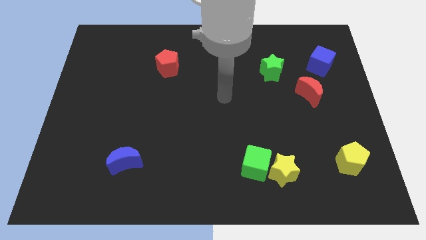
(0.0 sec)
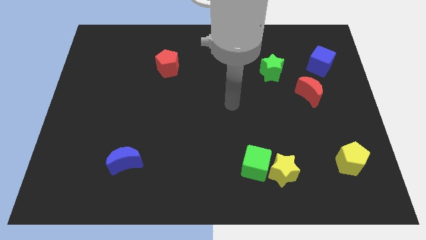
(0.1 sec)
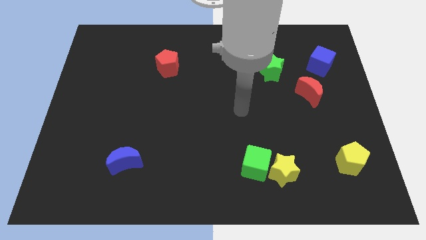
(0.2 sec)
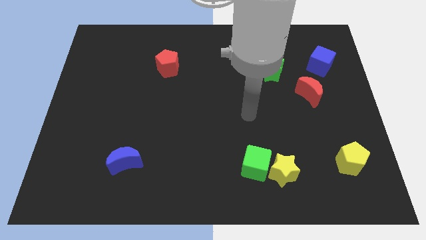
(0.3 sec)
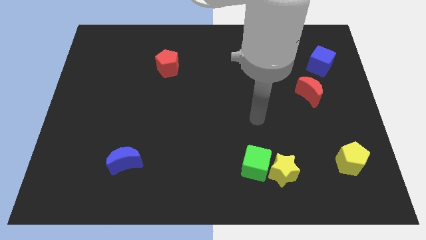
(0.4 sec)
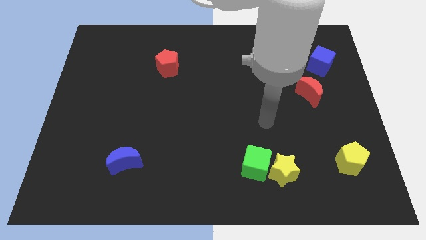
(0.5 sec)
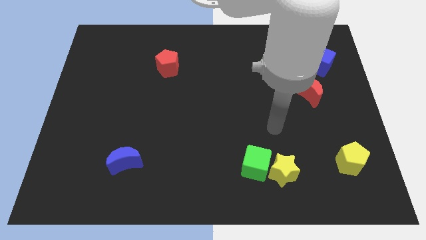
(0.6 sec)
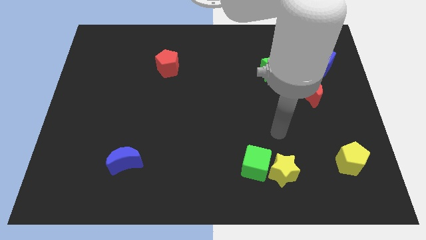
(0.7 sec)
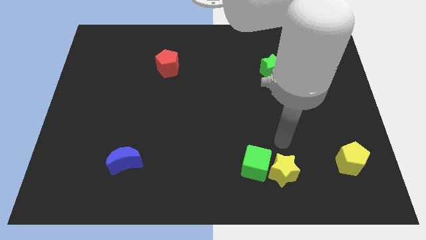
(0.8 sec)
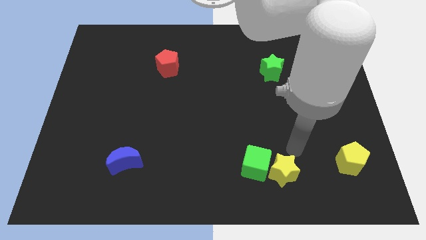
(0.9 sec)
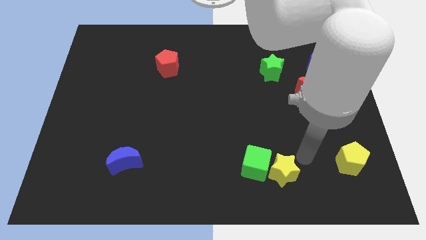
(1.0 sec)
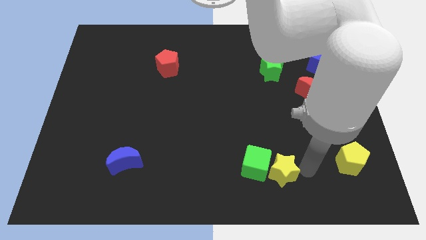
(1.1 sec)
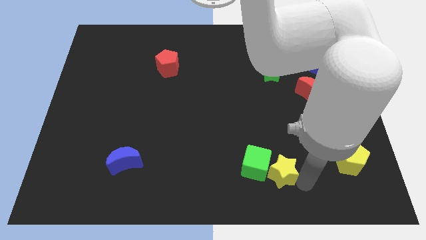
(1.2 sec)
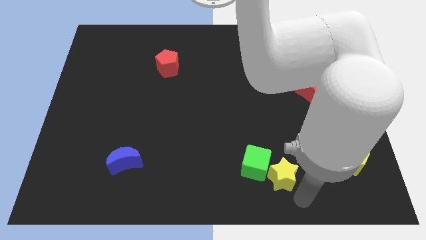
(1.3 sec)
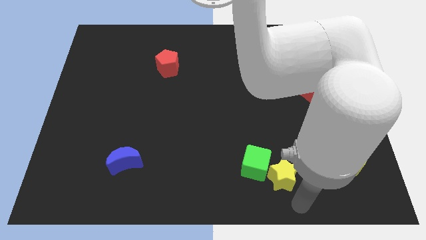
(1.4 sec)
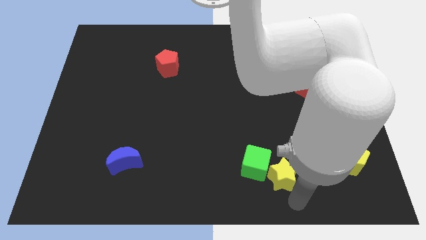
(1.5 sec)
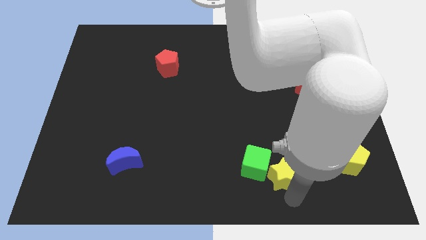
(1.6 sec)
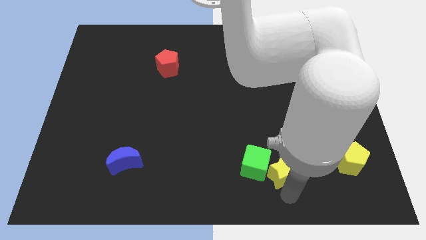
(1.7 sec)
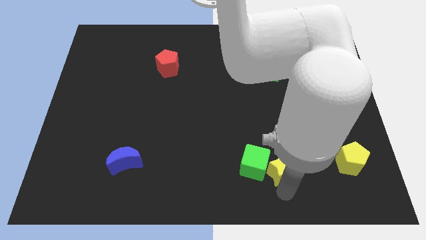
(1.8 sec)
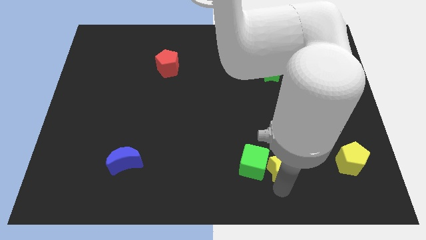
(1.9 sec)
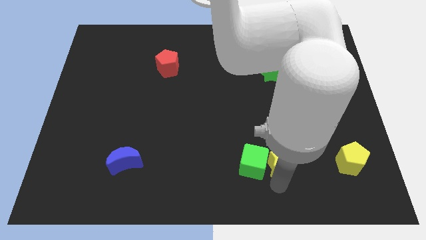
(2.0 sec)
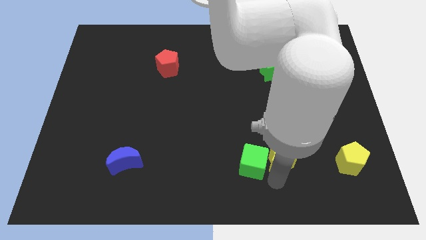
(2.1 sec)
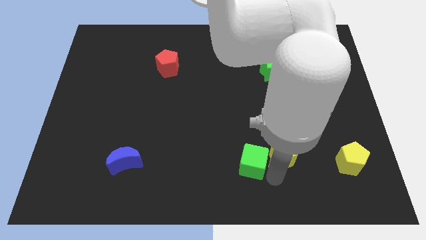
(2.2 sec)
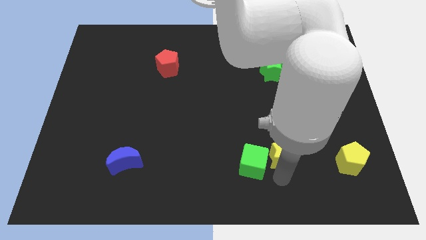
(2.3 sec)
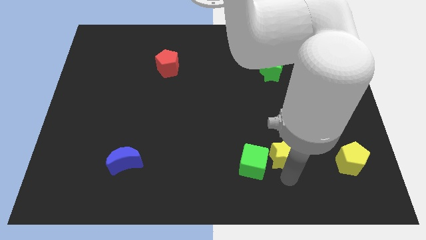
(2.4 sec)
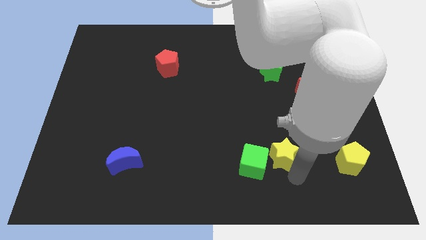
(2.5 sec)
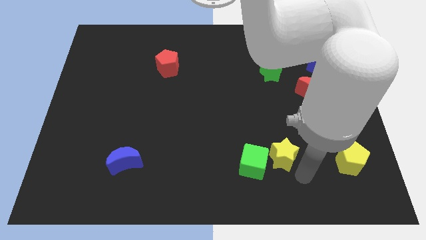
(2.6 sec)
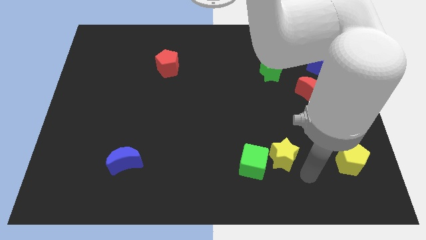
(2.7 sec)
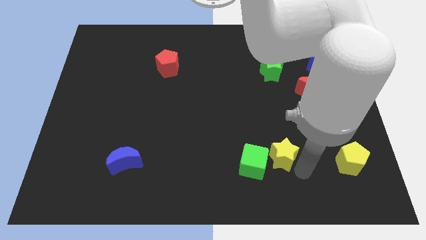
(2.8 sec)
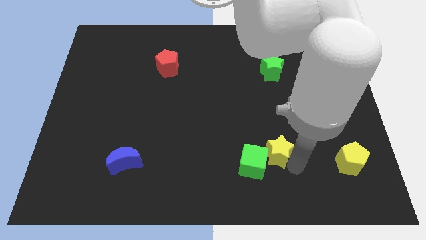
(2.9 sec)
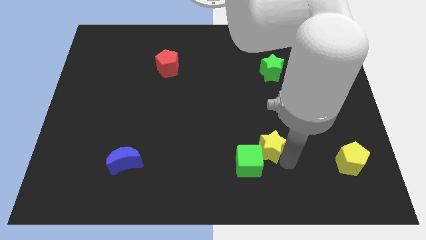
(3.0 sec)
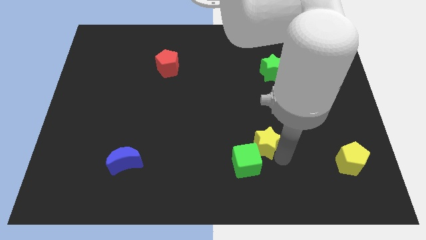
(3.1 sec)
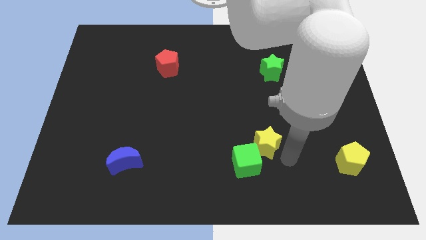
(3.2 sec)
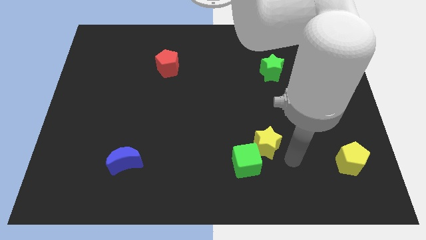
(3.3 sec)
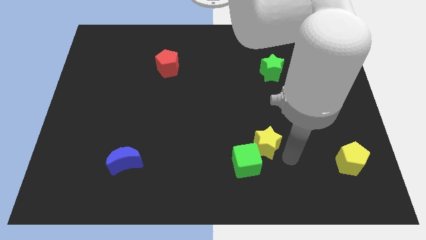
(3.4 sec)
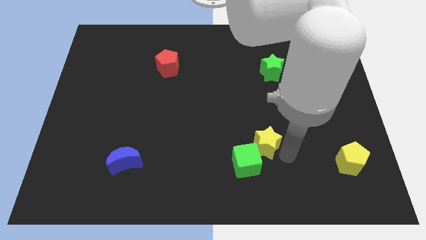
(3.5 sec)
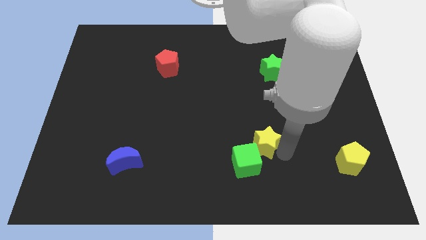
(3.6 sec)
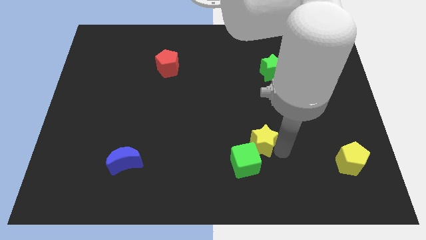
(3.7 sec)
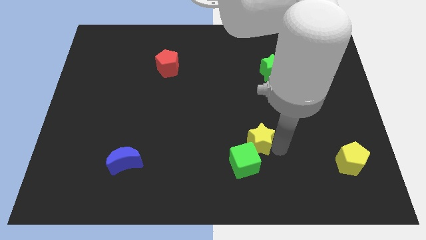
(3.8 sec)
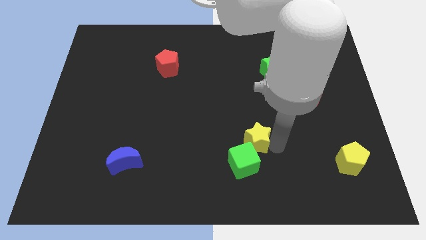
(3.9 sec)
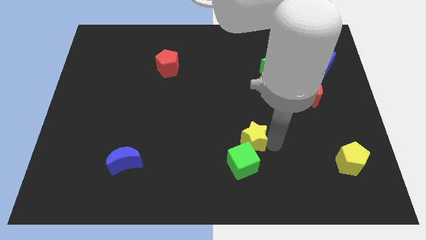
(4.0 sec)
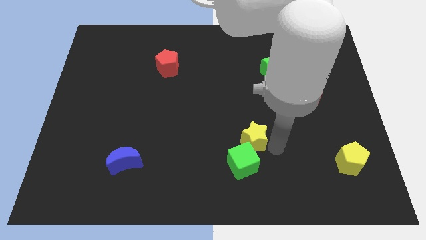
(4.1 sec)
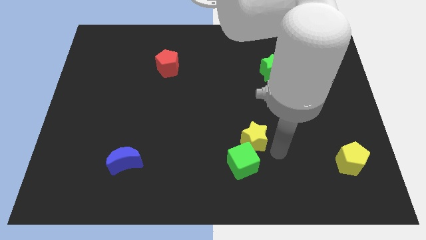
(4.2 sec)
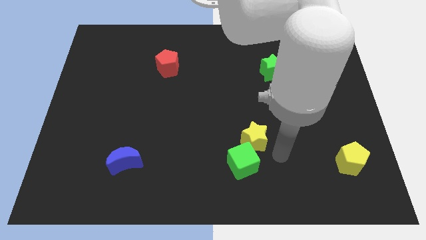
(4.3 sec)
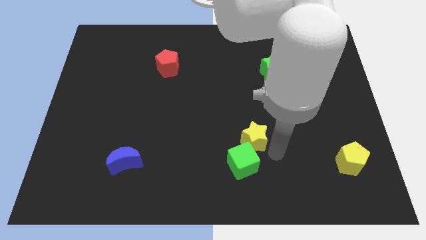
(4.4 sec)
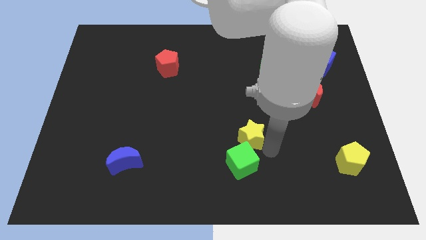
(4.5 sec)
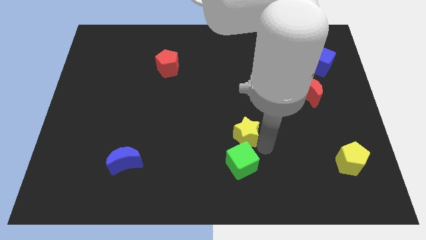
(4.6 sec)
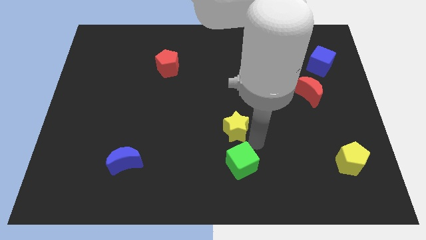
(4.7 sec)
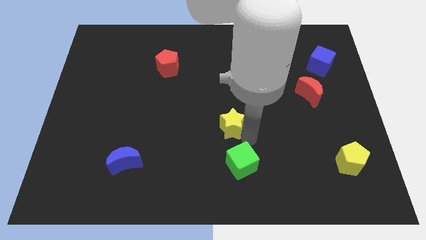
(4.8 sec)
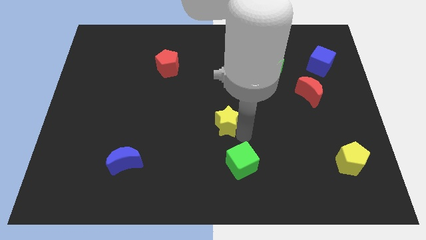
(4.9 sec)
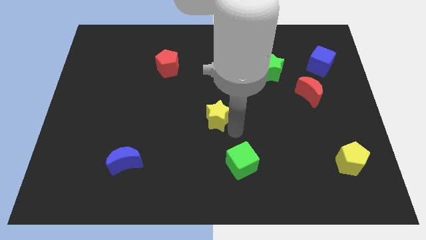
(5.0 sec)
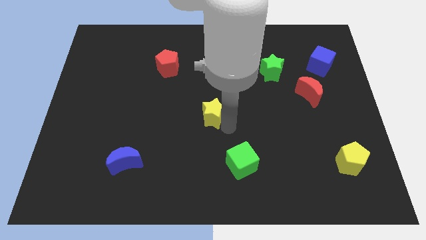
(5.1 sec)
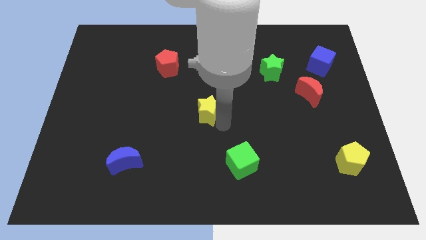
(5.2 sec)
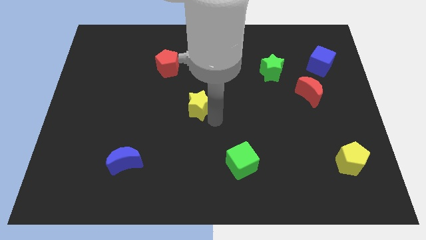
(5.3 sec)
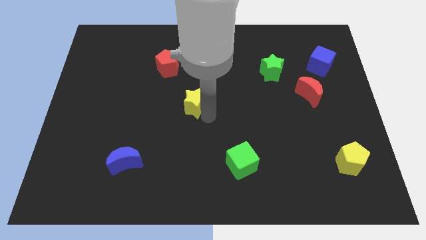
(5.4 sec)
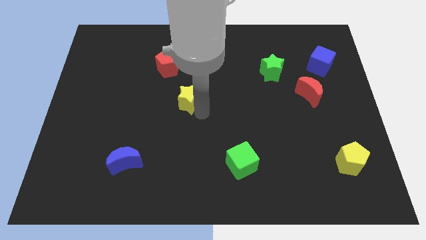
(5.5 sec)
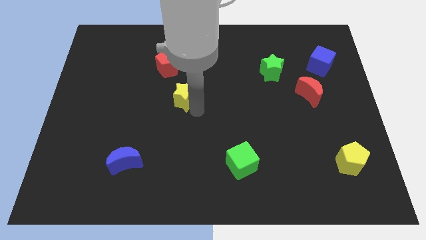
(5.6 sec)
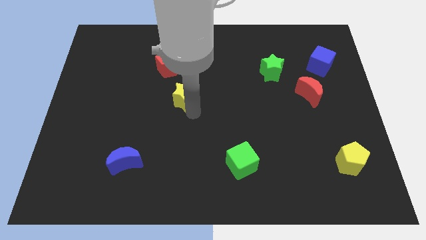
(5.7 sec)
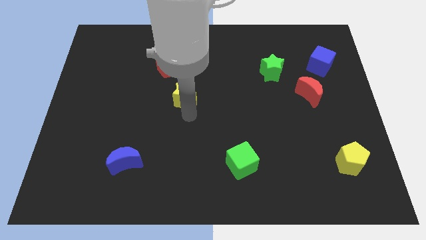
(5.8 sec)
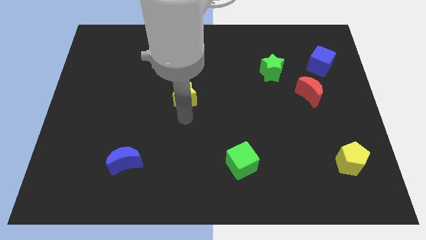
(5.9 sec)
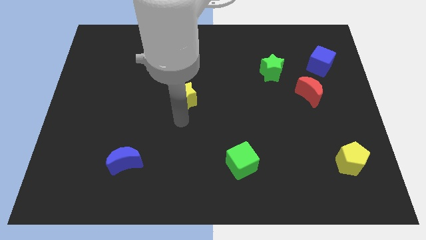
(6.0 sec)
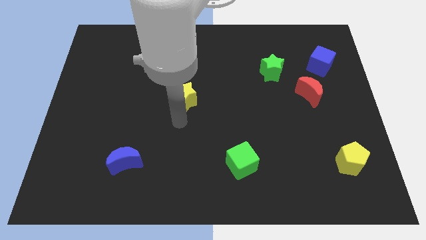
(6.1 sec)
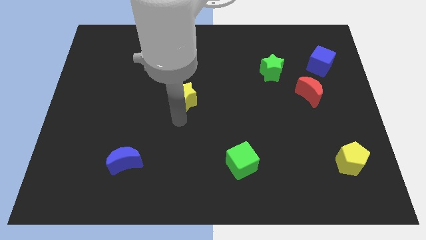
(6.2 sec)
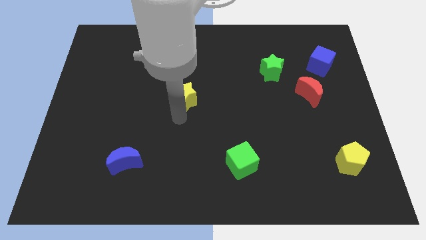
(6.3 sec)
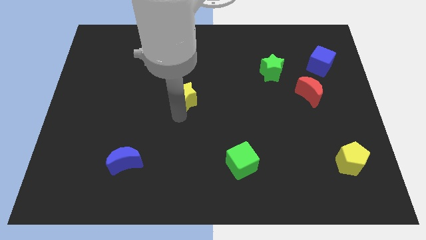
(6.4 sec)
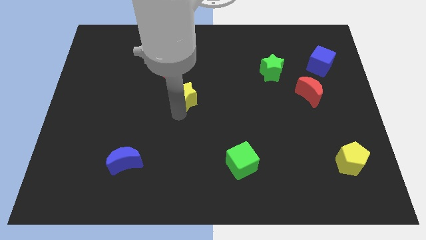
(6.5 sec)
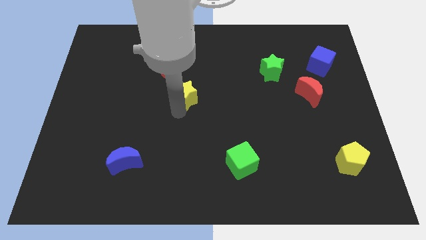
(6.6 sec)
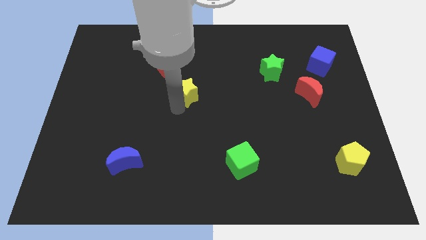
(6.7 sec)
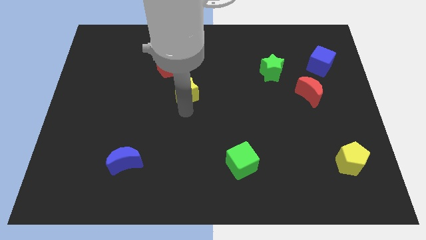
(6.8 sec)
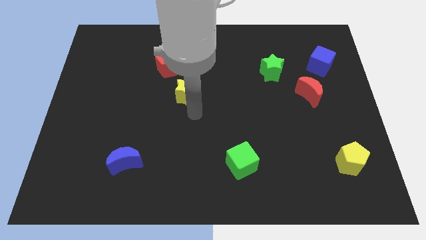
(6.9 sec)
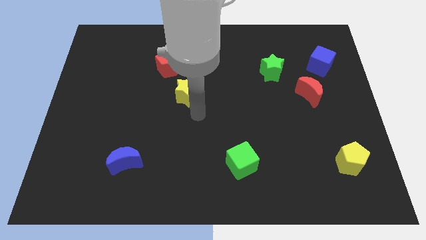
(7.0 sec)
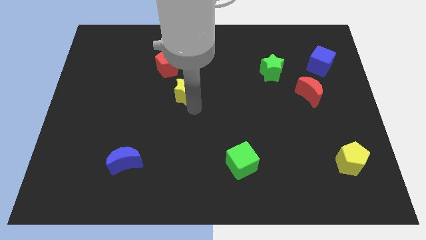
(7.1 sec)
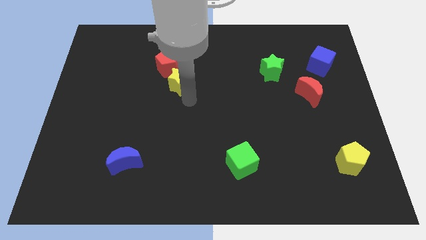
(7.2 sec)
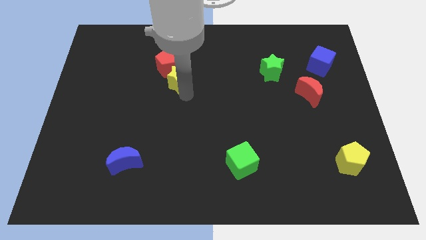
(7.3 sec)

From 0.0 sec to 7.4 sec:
move the yellow star to the red pentagon
